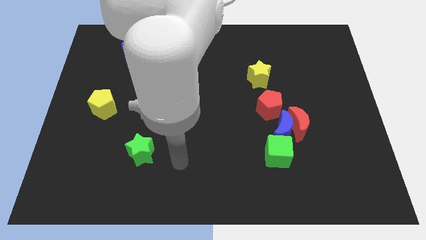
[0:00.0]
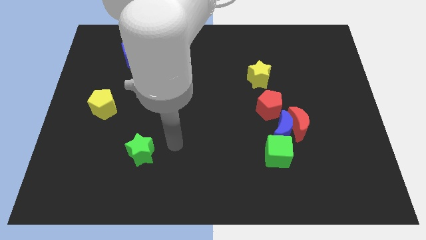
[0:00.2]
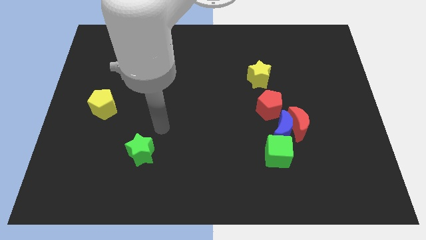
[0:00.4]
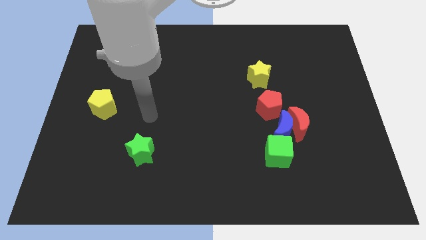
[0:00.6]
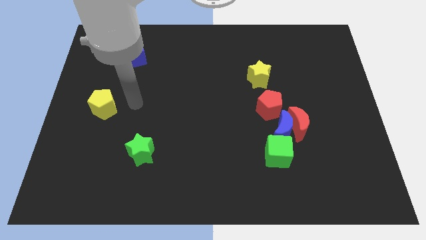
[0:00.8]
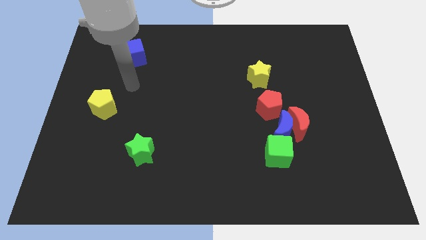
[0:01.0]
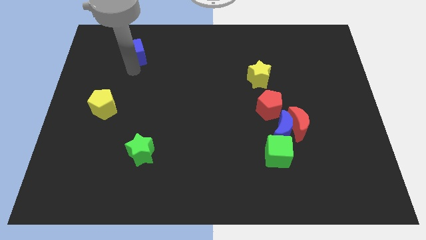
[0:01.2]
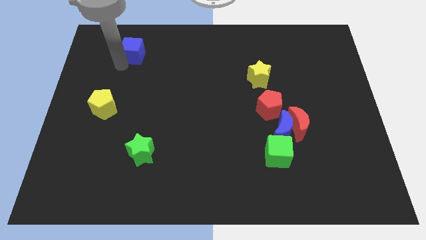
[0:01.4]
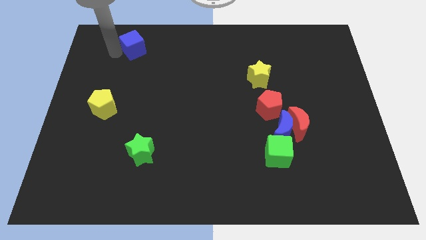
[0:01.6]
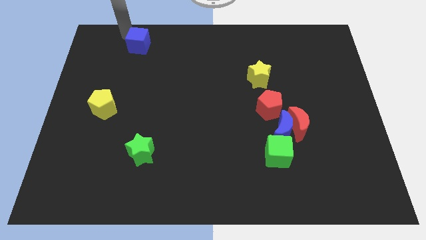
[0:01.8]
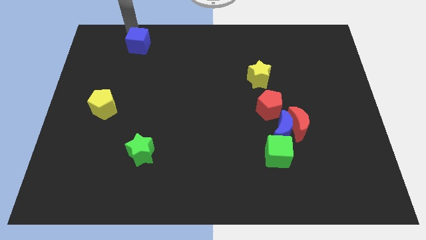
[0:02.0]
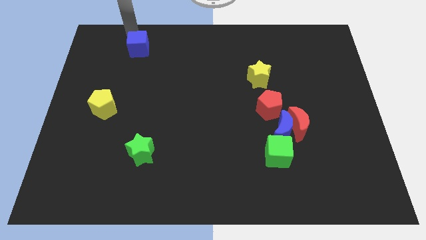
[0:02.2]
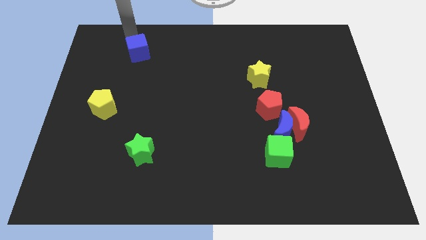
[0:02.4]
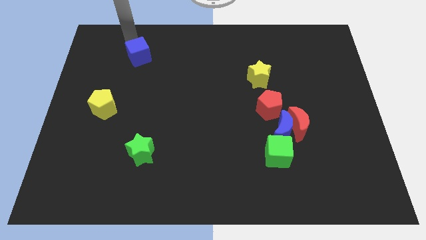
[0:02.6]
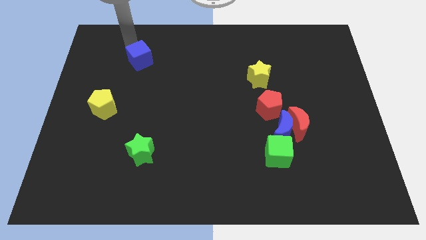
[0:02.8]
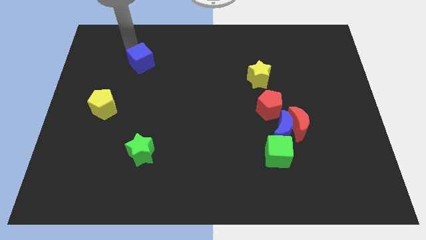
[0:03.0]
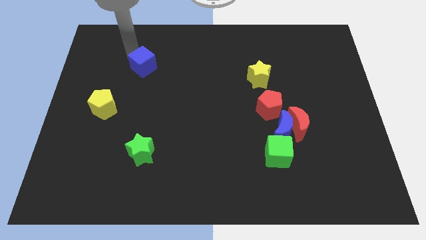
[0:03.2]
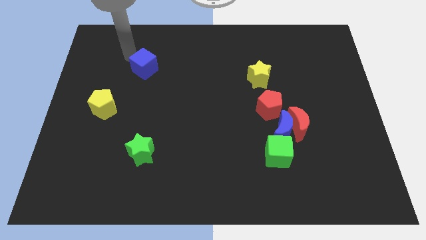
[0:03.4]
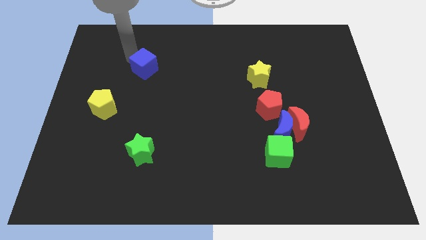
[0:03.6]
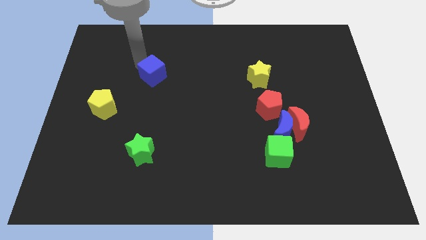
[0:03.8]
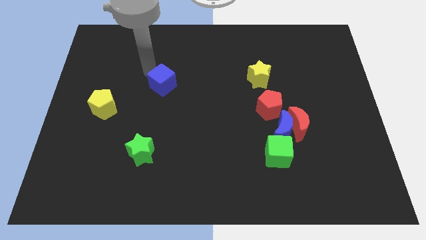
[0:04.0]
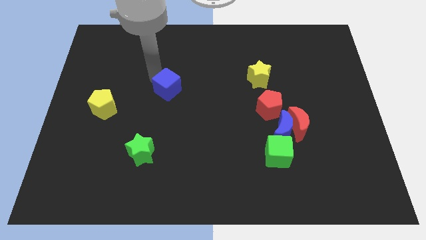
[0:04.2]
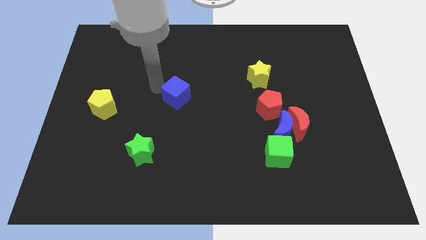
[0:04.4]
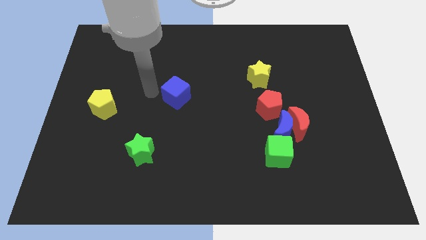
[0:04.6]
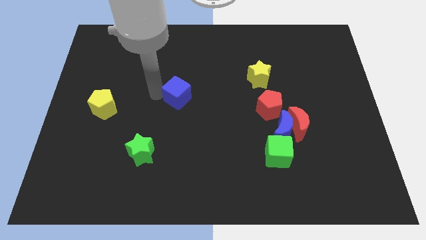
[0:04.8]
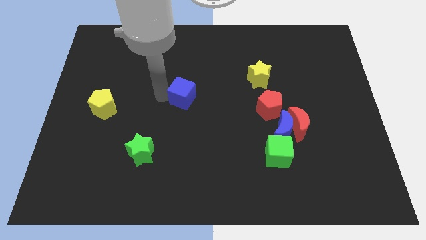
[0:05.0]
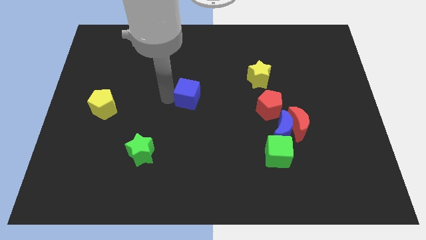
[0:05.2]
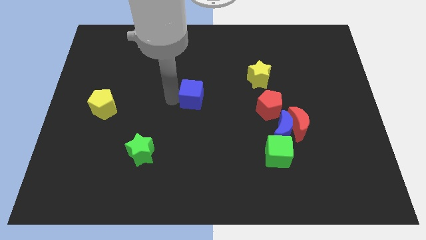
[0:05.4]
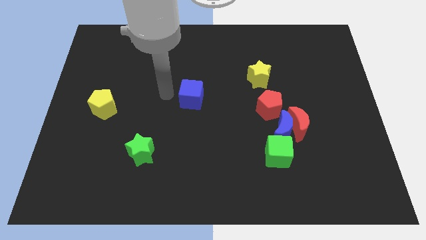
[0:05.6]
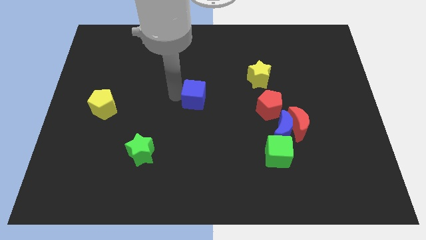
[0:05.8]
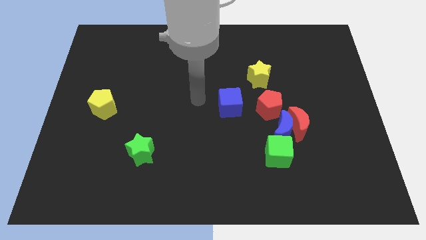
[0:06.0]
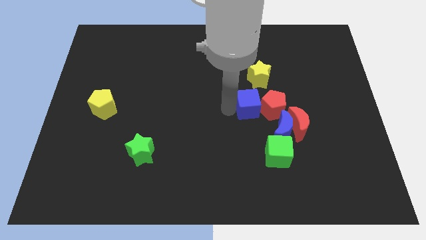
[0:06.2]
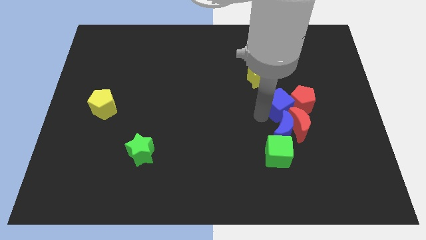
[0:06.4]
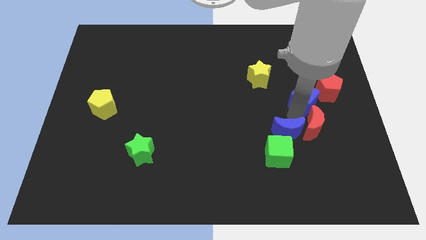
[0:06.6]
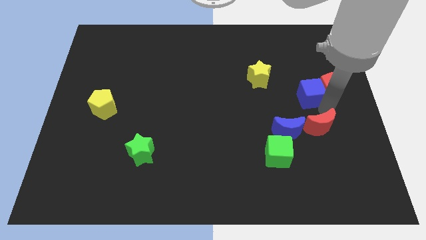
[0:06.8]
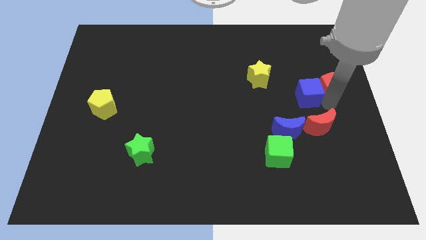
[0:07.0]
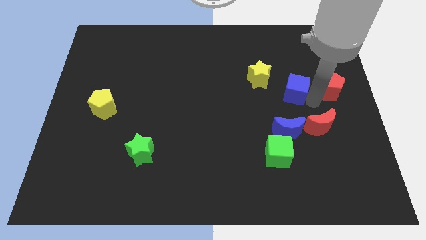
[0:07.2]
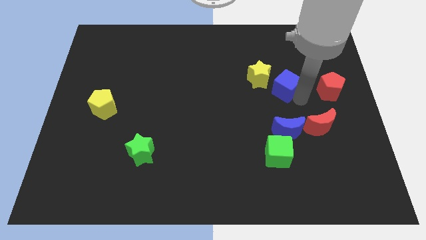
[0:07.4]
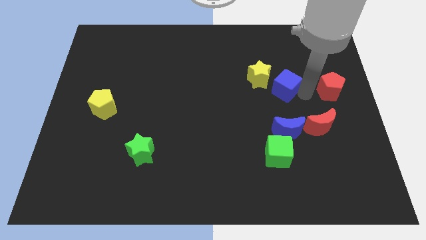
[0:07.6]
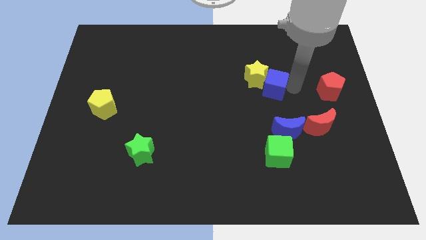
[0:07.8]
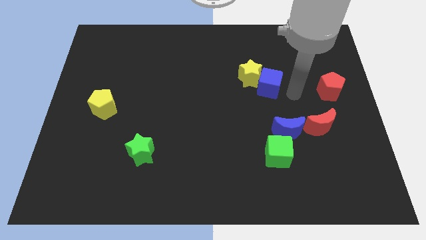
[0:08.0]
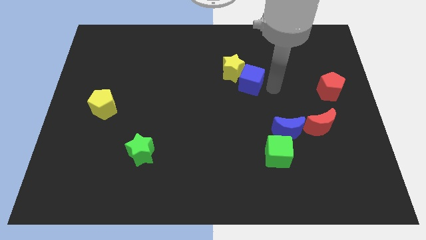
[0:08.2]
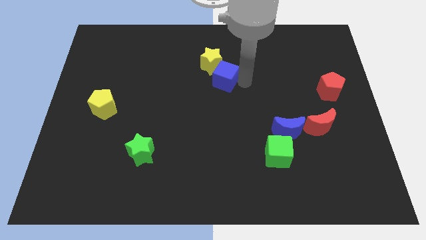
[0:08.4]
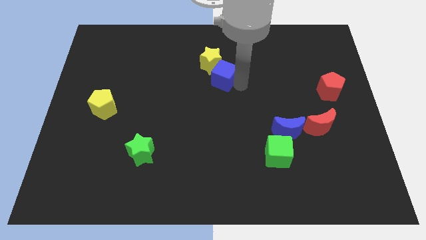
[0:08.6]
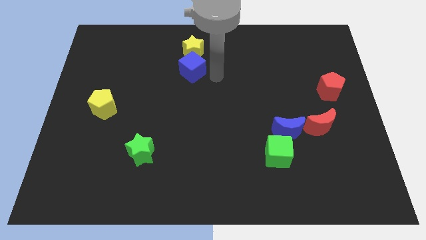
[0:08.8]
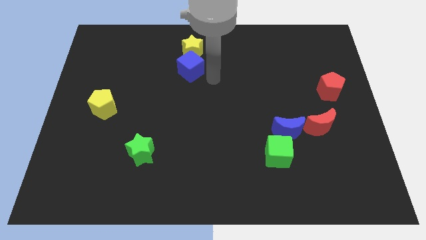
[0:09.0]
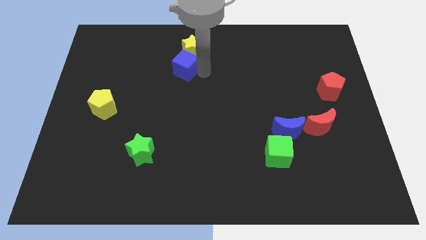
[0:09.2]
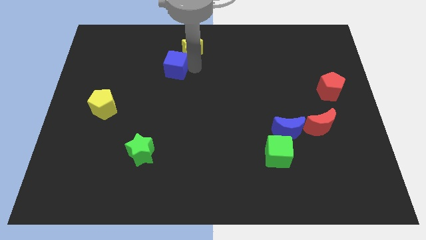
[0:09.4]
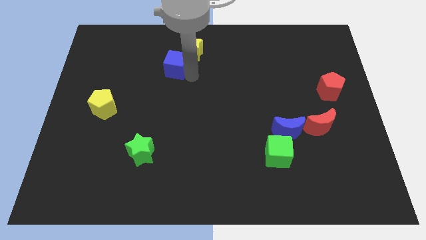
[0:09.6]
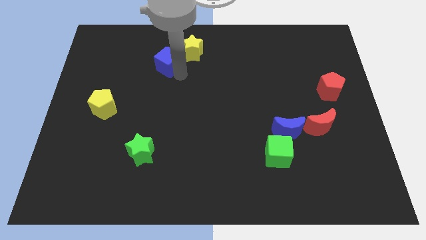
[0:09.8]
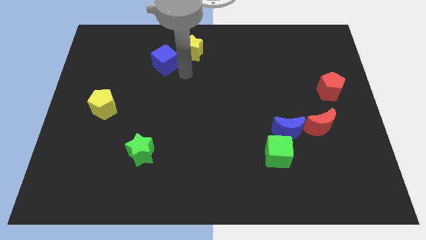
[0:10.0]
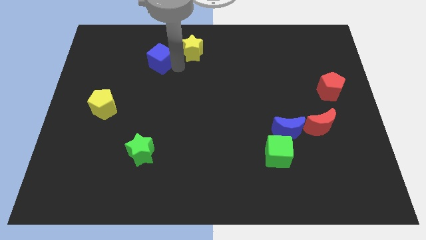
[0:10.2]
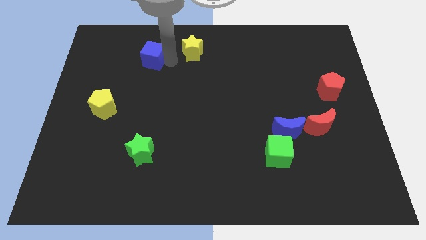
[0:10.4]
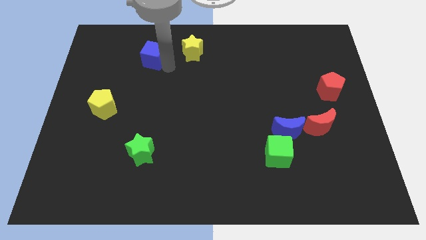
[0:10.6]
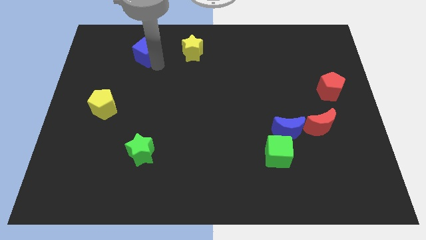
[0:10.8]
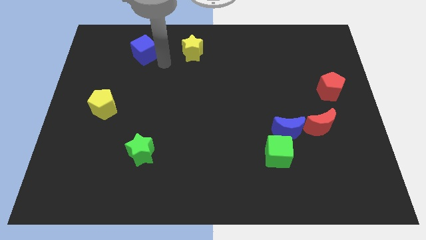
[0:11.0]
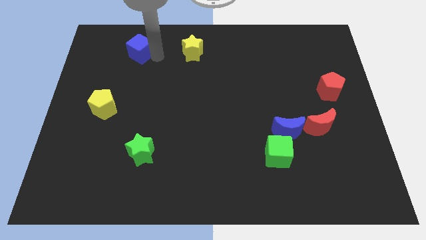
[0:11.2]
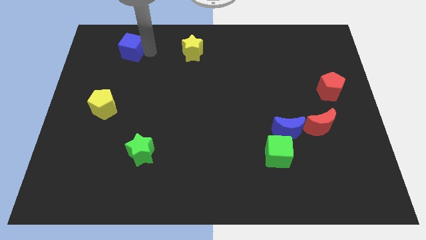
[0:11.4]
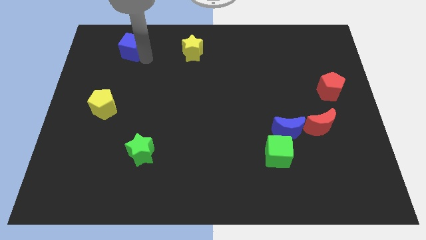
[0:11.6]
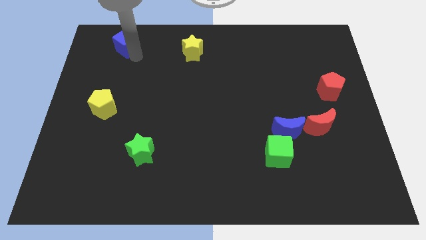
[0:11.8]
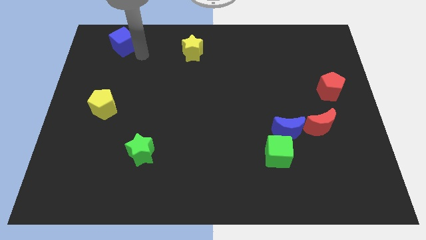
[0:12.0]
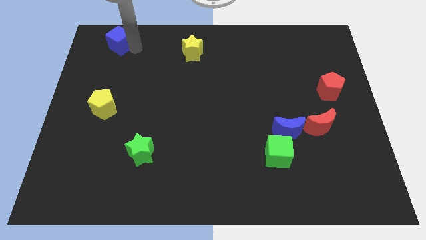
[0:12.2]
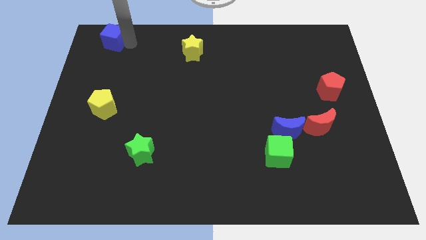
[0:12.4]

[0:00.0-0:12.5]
push the blue cube to the top left corner
